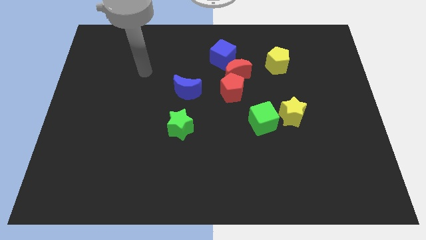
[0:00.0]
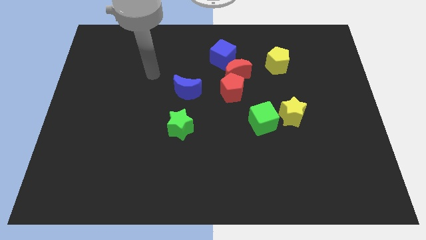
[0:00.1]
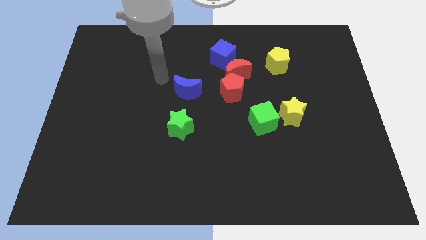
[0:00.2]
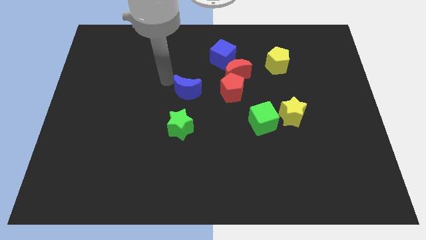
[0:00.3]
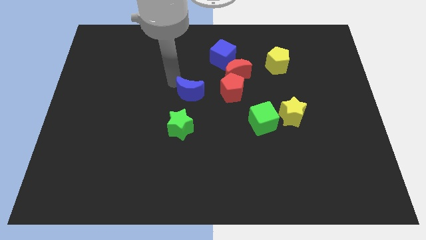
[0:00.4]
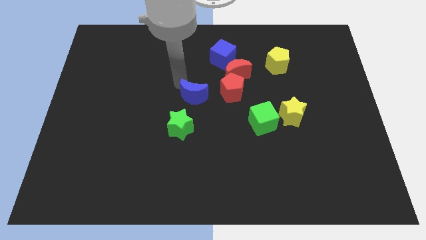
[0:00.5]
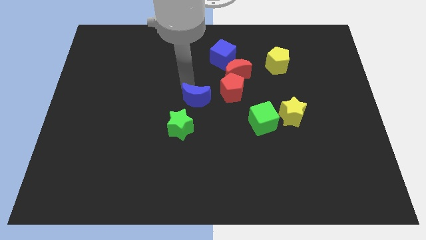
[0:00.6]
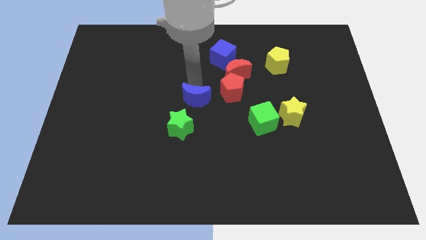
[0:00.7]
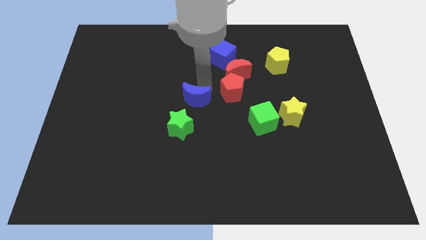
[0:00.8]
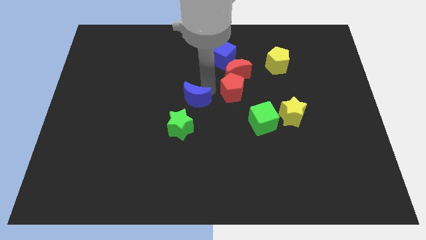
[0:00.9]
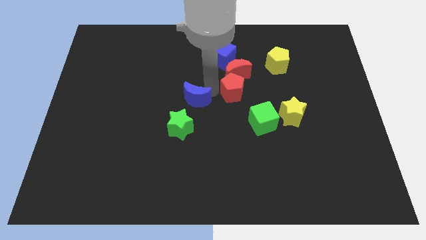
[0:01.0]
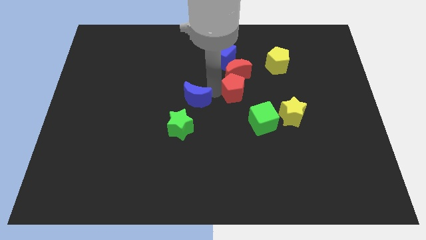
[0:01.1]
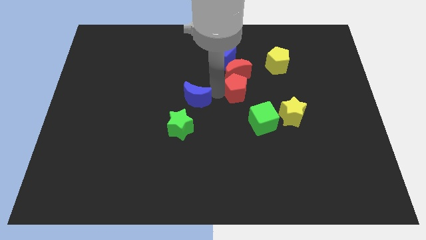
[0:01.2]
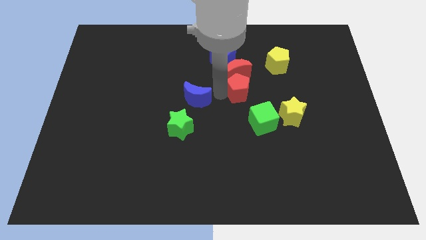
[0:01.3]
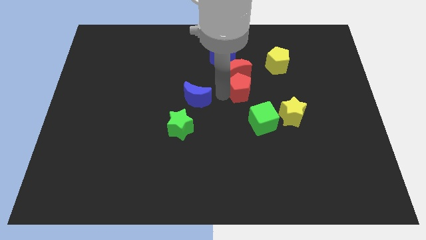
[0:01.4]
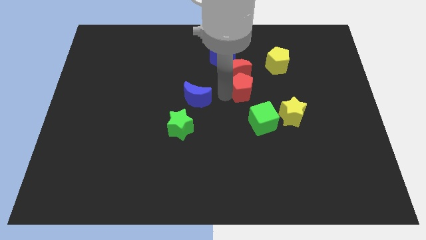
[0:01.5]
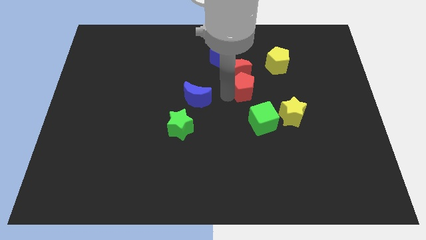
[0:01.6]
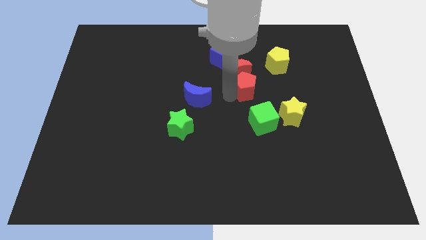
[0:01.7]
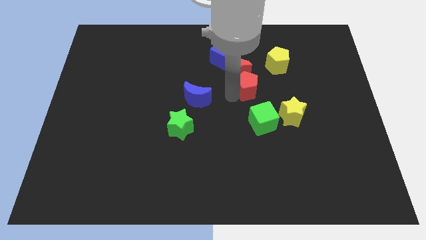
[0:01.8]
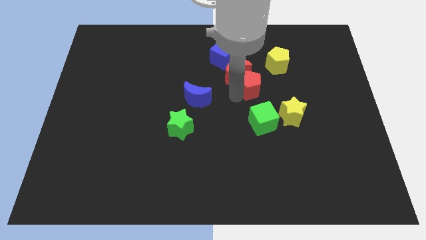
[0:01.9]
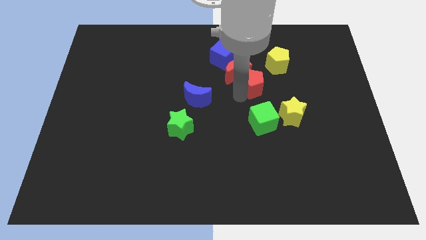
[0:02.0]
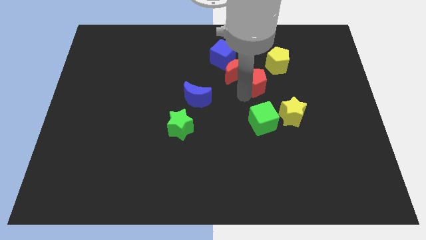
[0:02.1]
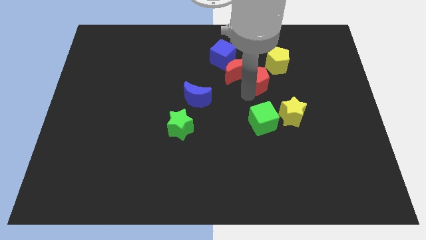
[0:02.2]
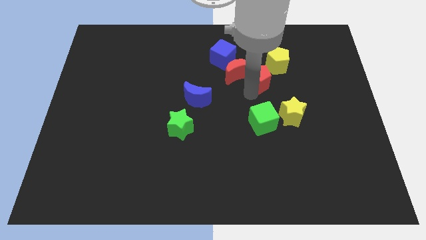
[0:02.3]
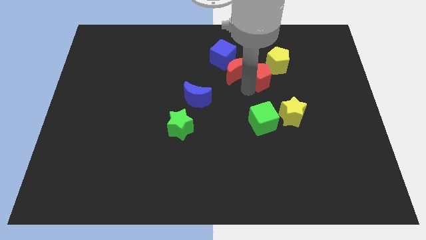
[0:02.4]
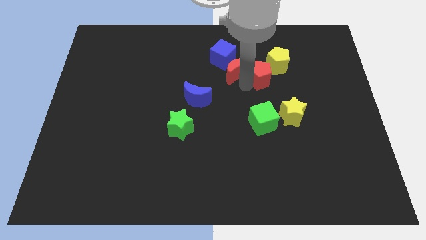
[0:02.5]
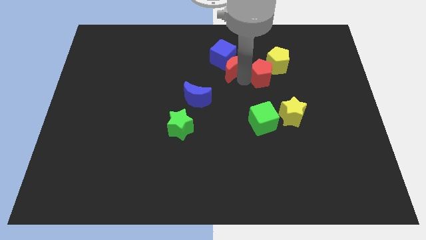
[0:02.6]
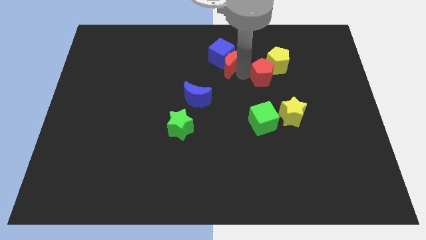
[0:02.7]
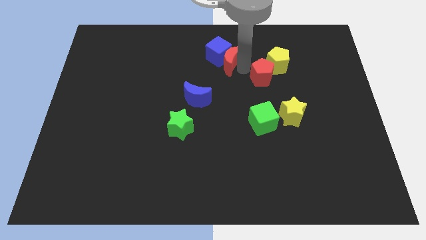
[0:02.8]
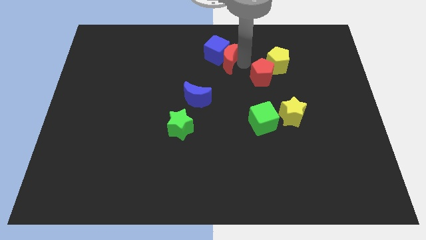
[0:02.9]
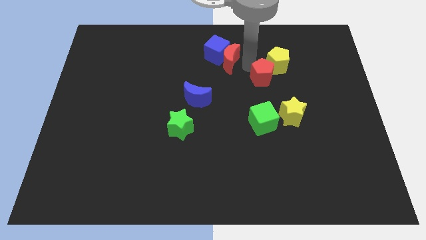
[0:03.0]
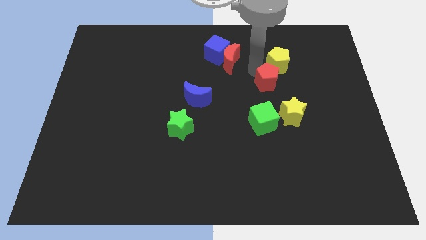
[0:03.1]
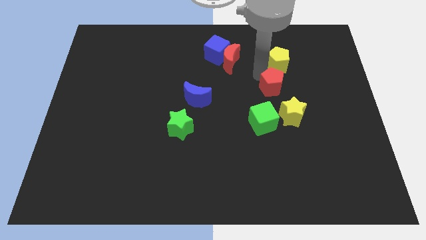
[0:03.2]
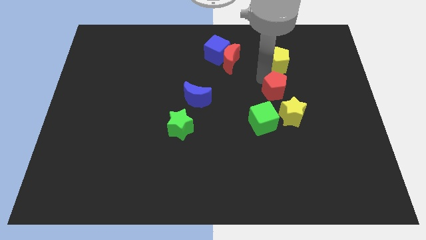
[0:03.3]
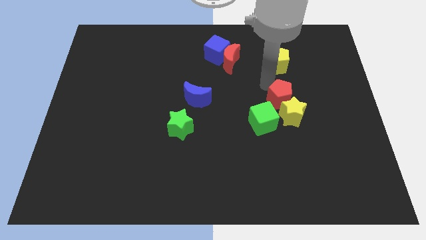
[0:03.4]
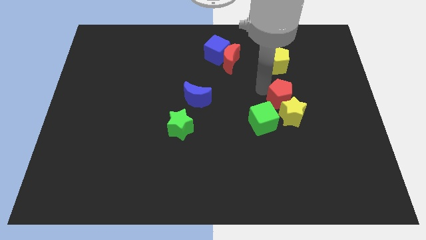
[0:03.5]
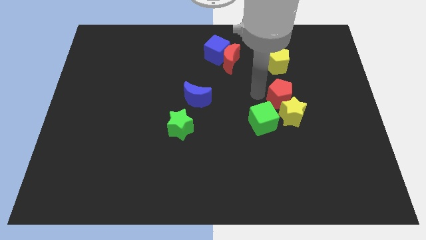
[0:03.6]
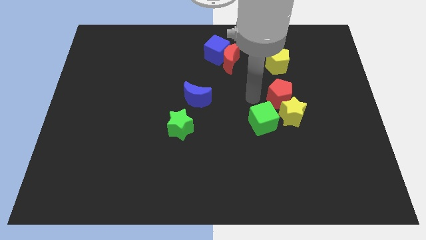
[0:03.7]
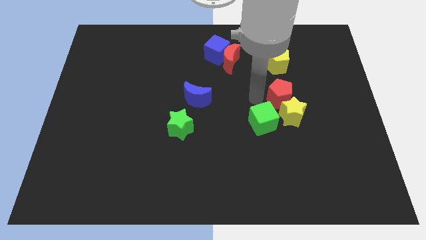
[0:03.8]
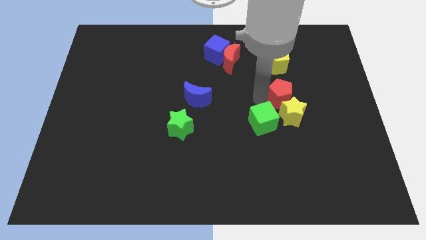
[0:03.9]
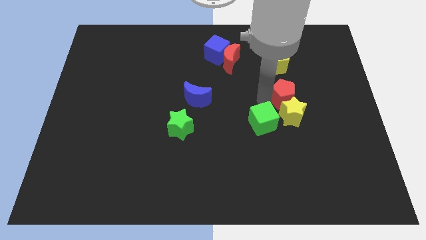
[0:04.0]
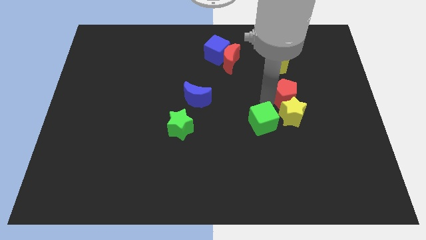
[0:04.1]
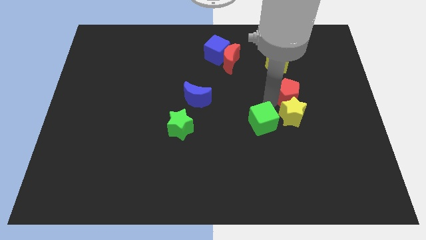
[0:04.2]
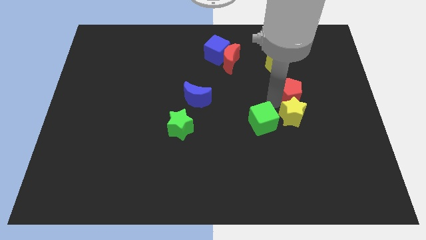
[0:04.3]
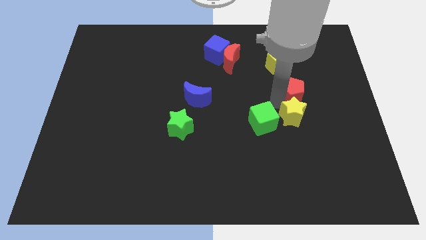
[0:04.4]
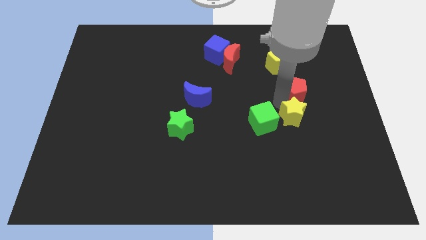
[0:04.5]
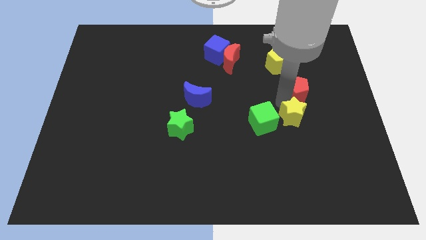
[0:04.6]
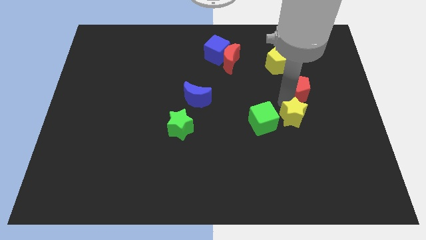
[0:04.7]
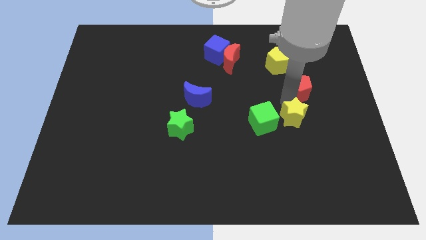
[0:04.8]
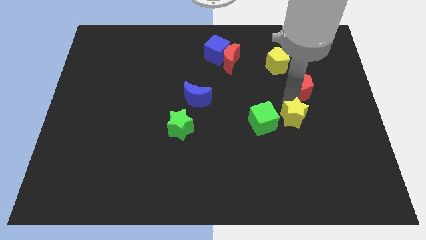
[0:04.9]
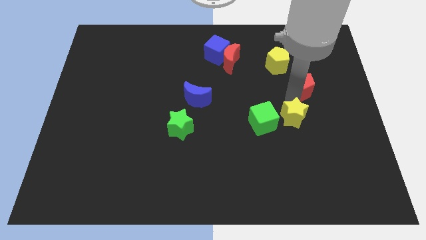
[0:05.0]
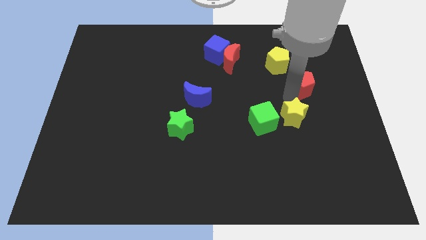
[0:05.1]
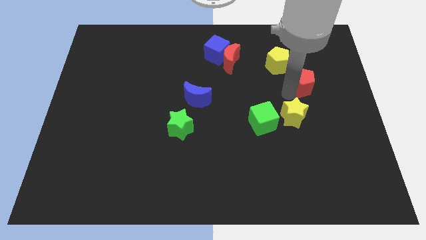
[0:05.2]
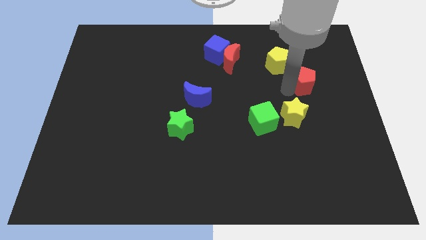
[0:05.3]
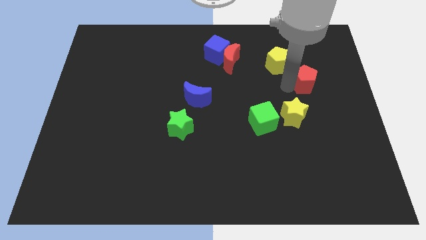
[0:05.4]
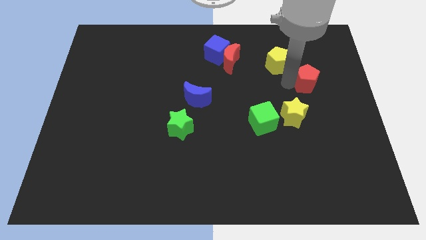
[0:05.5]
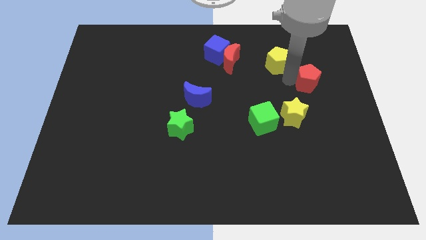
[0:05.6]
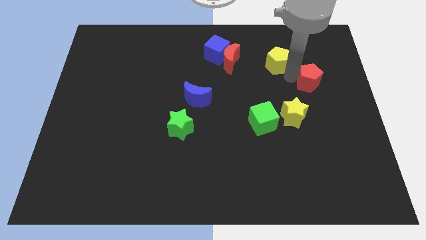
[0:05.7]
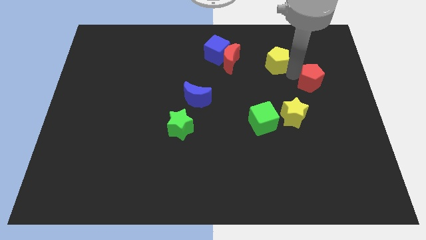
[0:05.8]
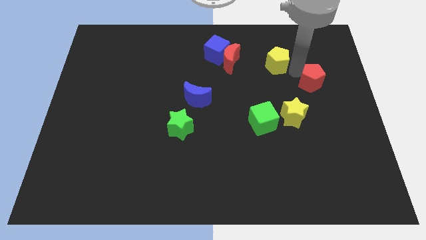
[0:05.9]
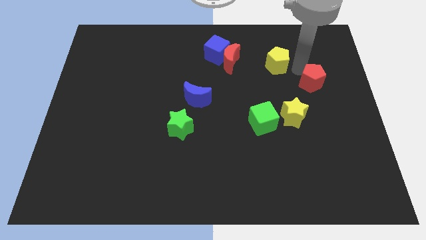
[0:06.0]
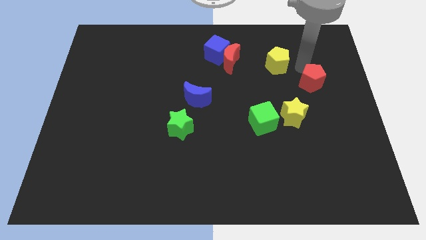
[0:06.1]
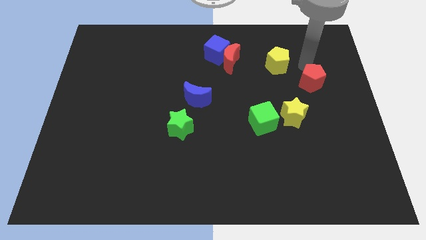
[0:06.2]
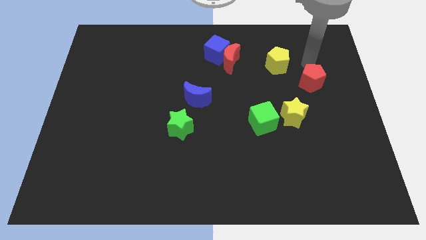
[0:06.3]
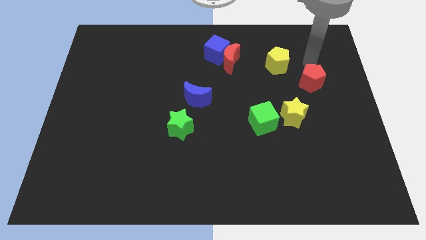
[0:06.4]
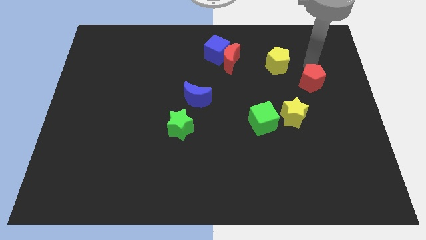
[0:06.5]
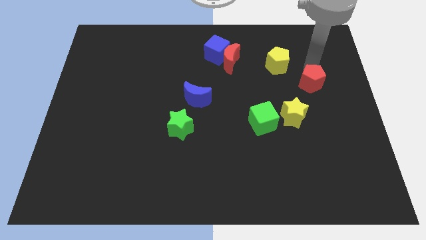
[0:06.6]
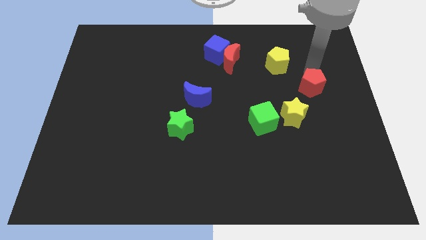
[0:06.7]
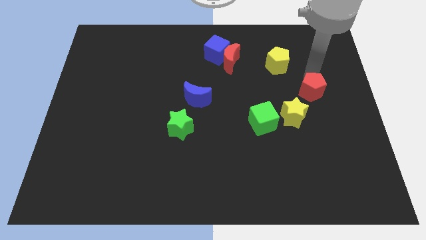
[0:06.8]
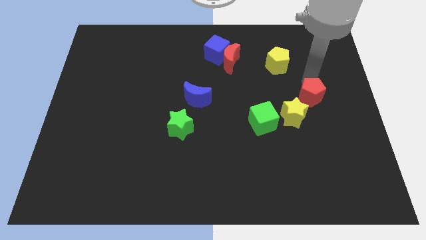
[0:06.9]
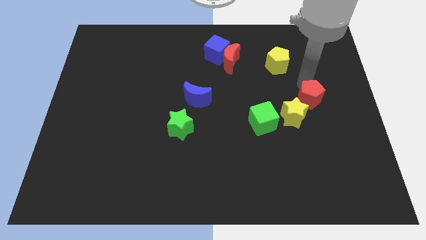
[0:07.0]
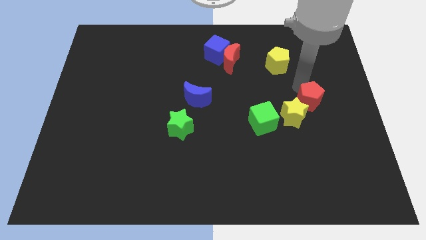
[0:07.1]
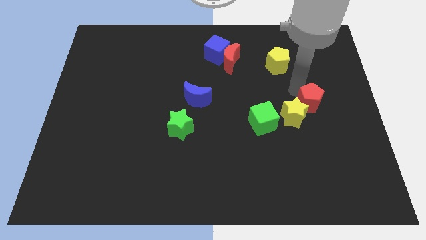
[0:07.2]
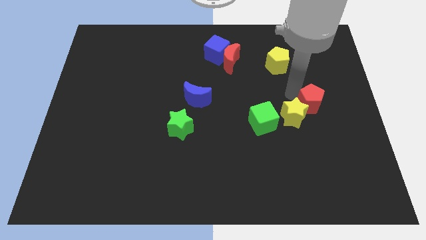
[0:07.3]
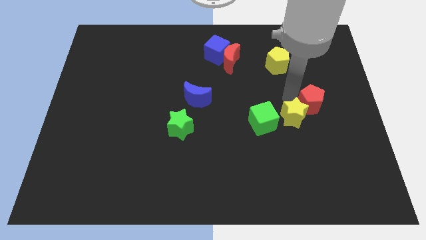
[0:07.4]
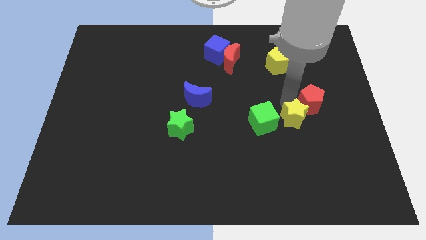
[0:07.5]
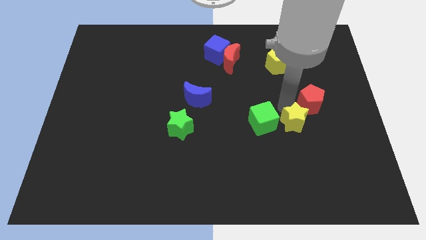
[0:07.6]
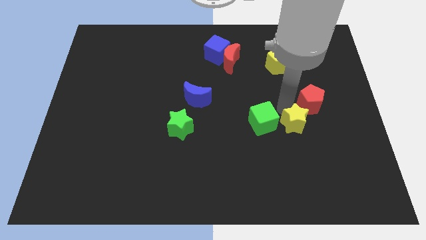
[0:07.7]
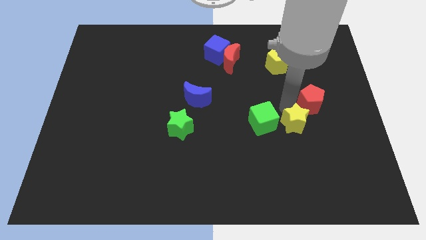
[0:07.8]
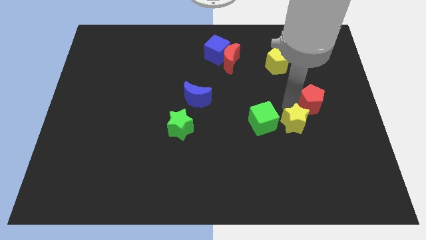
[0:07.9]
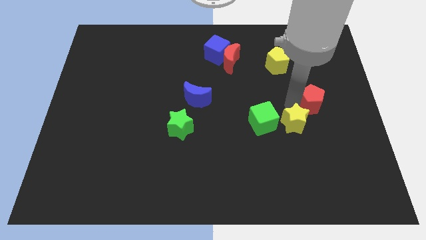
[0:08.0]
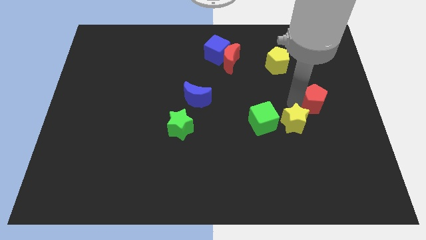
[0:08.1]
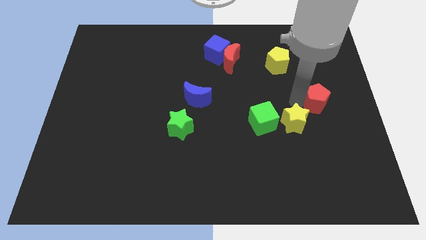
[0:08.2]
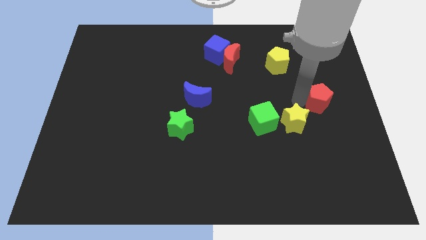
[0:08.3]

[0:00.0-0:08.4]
push the red pentagon to the right side of the board
